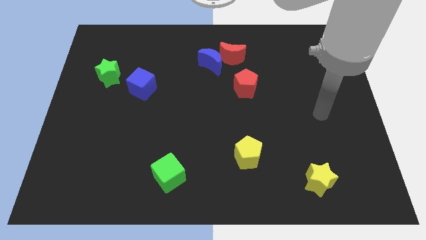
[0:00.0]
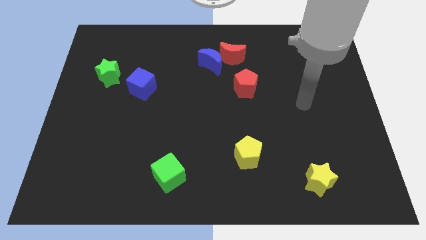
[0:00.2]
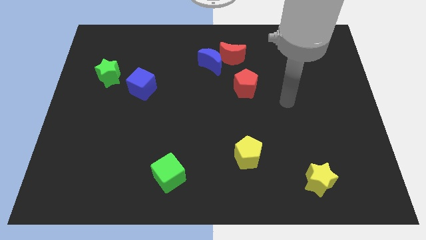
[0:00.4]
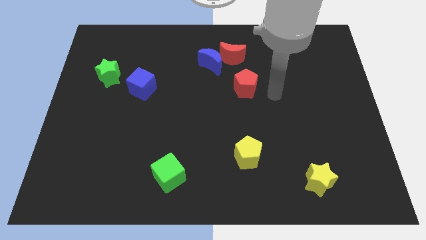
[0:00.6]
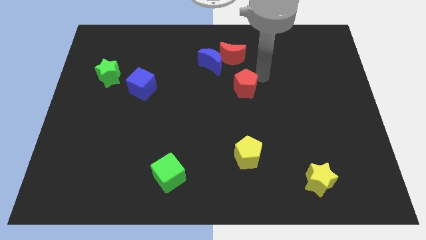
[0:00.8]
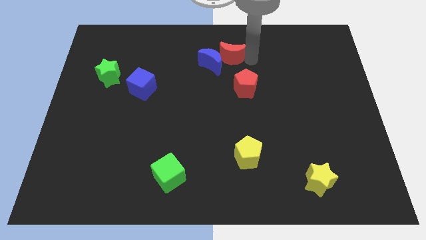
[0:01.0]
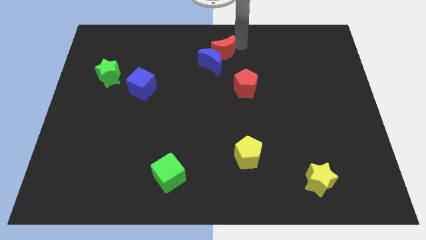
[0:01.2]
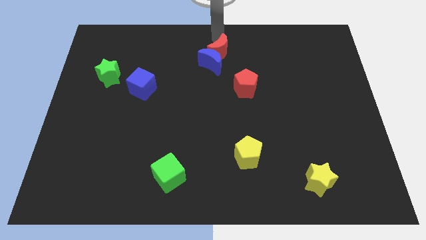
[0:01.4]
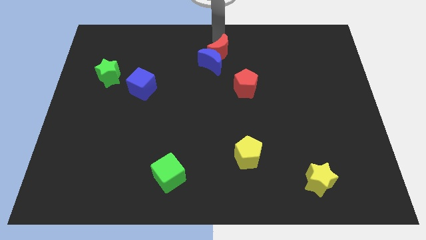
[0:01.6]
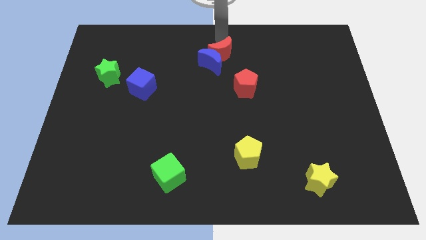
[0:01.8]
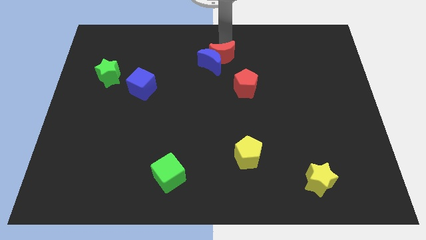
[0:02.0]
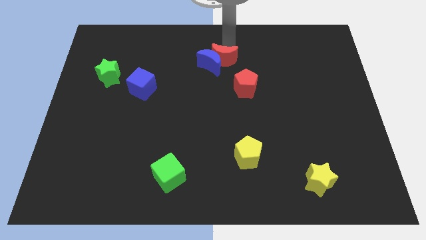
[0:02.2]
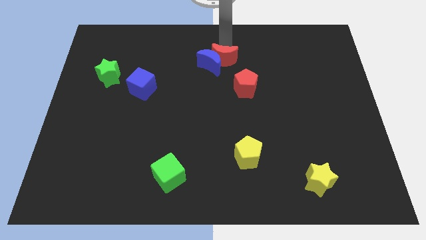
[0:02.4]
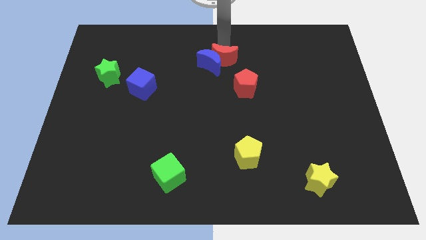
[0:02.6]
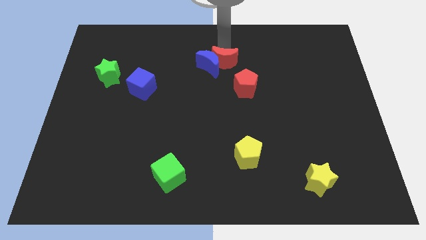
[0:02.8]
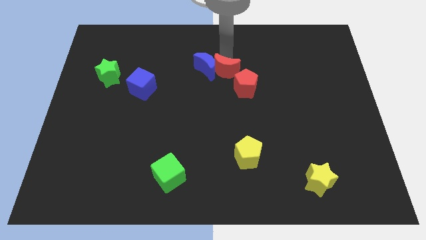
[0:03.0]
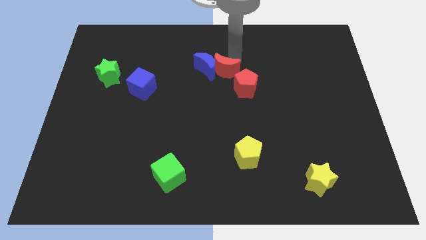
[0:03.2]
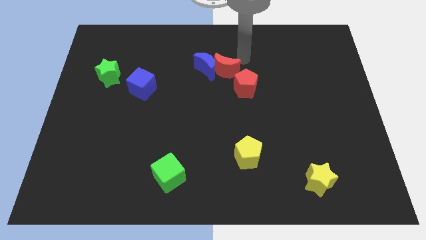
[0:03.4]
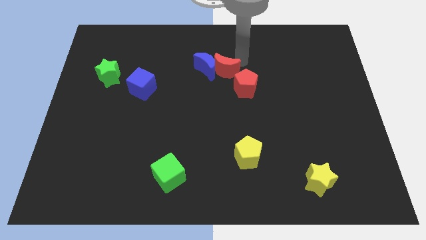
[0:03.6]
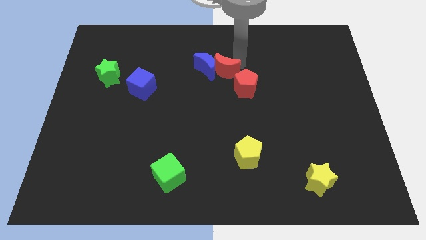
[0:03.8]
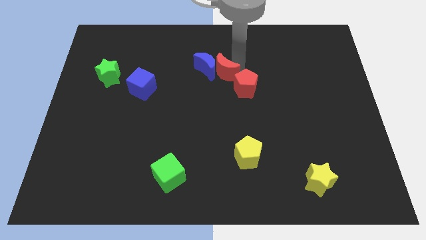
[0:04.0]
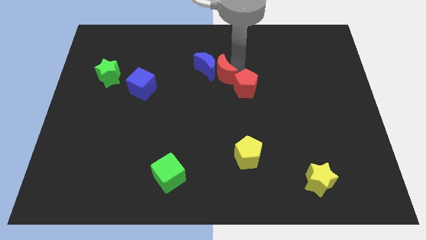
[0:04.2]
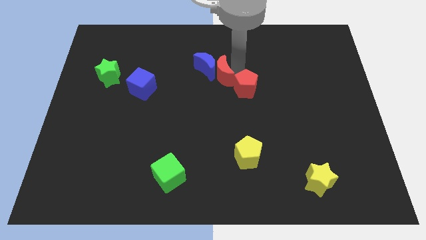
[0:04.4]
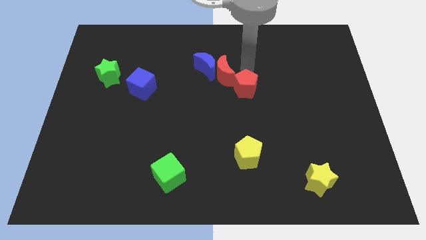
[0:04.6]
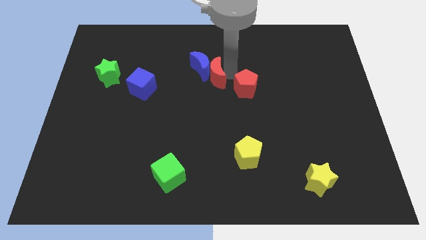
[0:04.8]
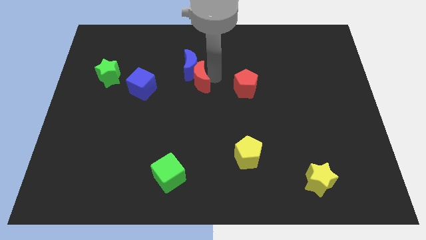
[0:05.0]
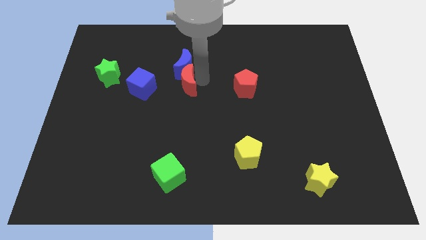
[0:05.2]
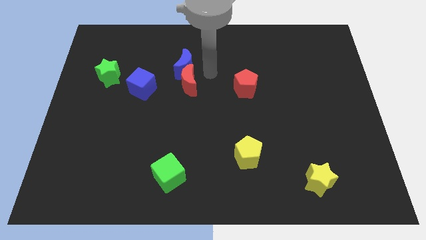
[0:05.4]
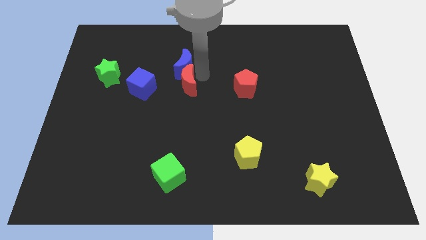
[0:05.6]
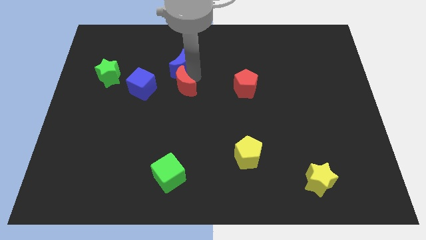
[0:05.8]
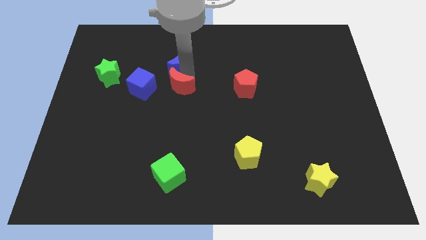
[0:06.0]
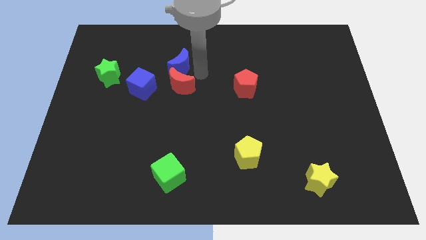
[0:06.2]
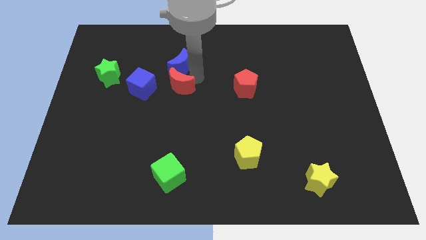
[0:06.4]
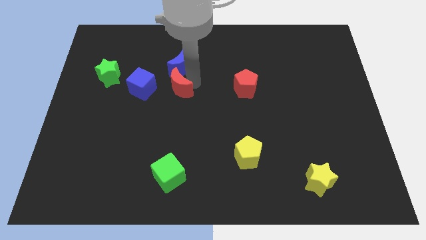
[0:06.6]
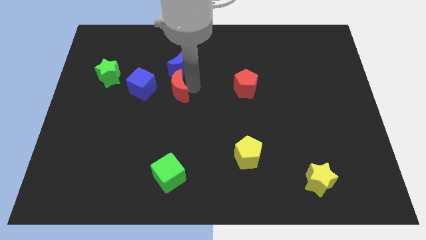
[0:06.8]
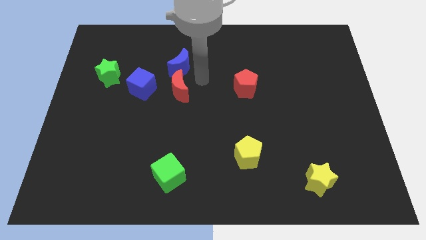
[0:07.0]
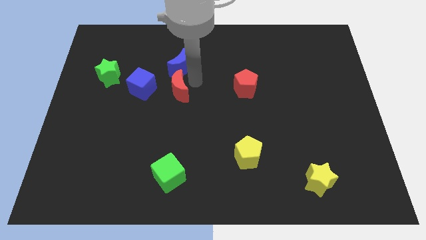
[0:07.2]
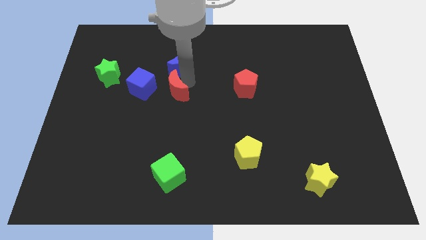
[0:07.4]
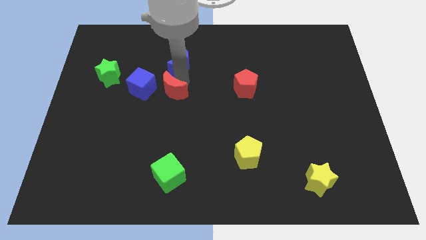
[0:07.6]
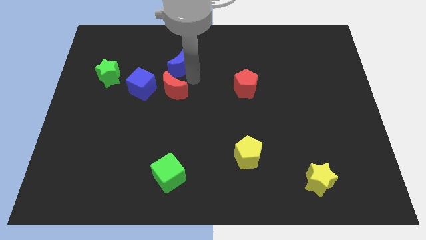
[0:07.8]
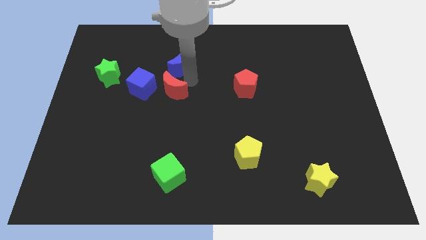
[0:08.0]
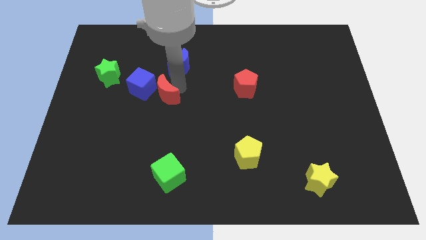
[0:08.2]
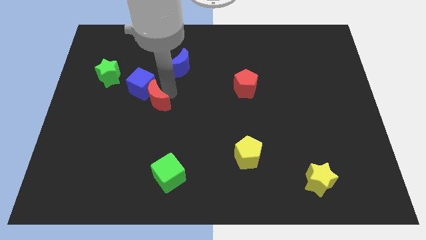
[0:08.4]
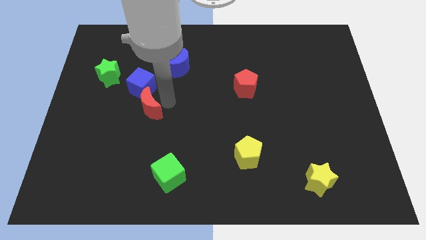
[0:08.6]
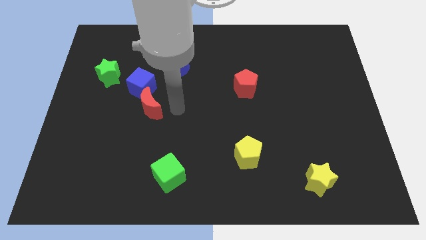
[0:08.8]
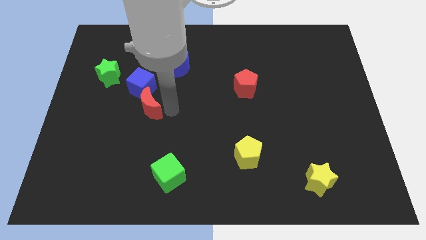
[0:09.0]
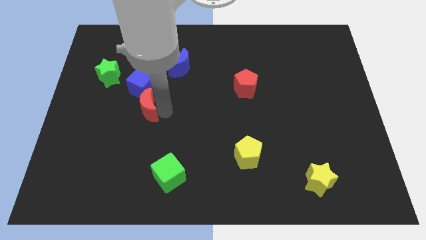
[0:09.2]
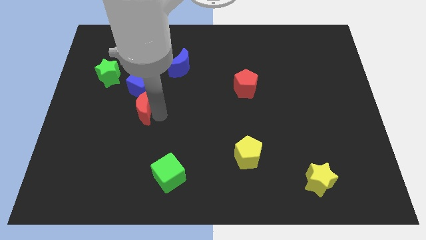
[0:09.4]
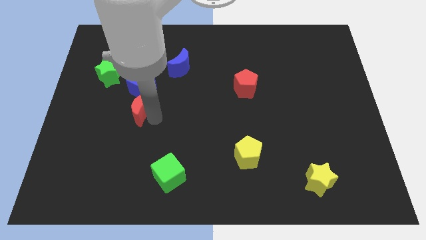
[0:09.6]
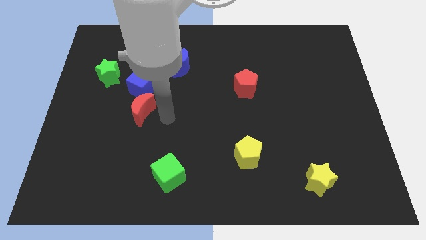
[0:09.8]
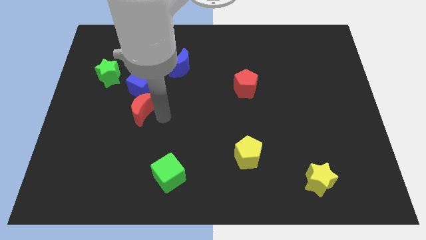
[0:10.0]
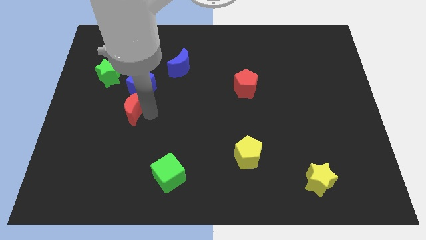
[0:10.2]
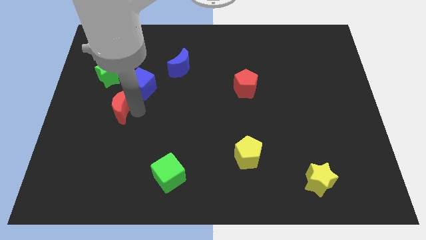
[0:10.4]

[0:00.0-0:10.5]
push the red moon below the green star

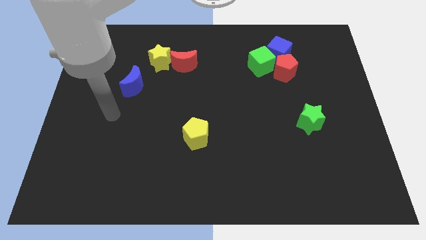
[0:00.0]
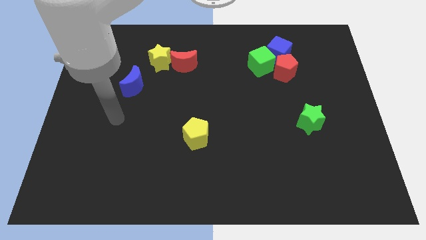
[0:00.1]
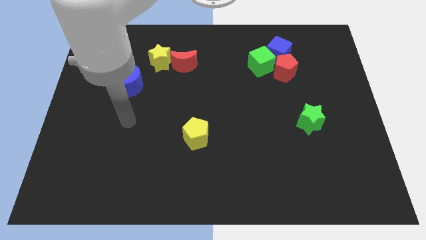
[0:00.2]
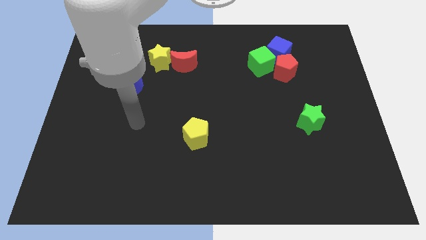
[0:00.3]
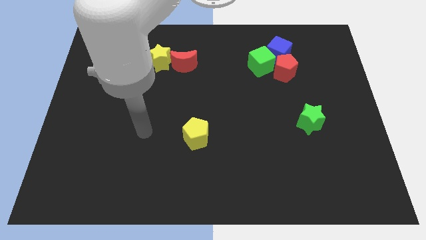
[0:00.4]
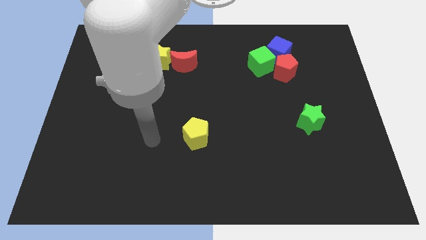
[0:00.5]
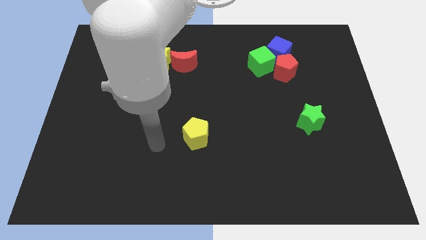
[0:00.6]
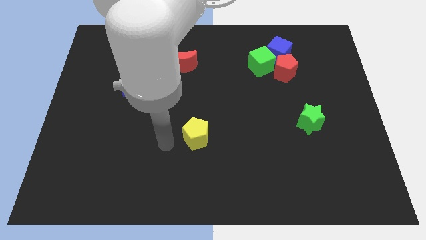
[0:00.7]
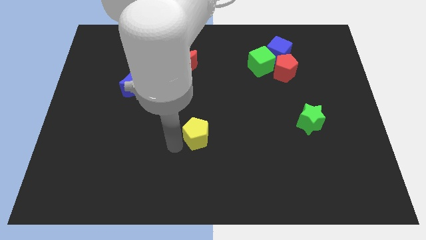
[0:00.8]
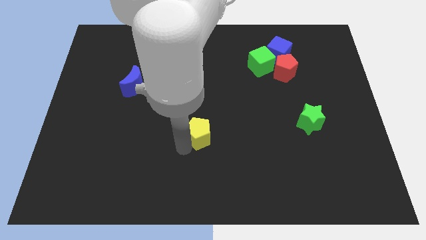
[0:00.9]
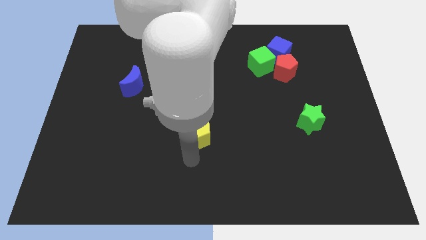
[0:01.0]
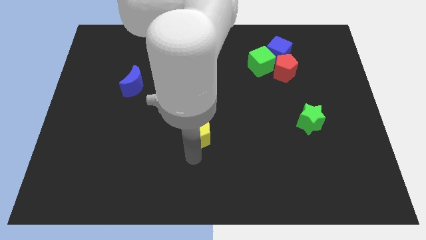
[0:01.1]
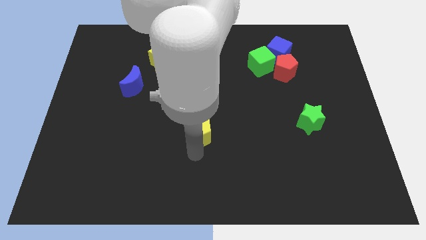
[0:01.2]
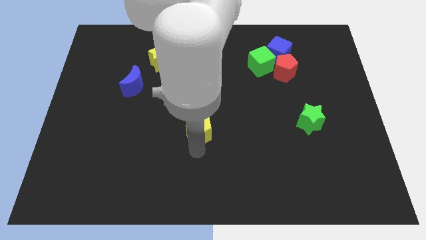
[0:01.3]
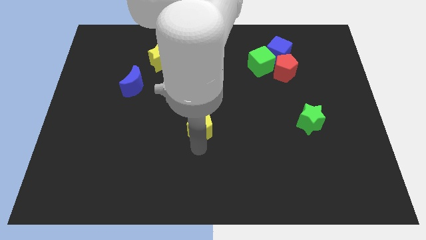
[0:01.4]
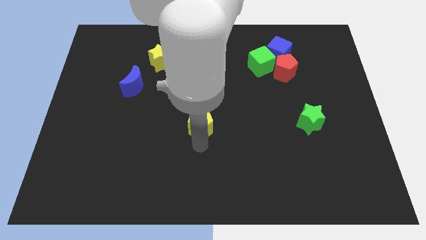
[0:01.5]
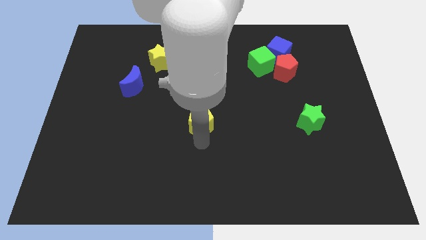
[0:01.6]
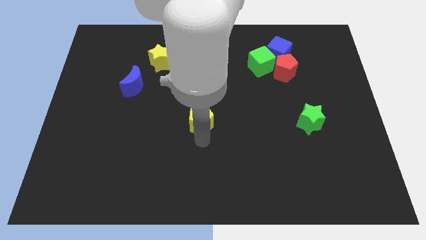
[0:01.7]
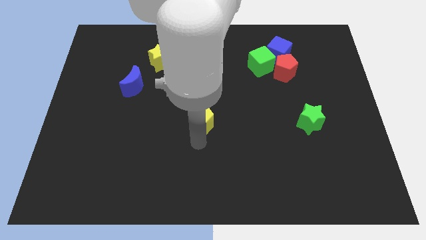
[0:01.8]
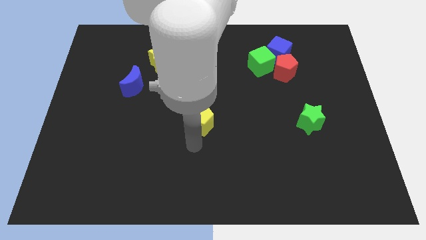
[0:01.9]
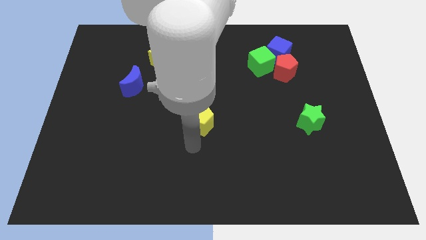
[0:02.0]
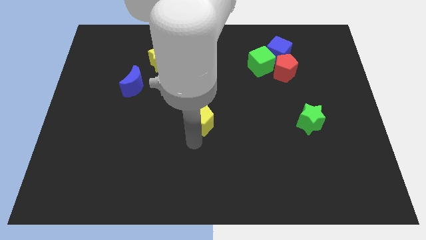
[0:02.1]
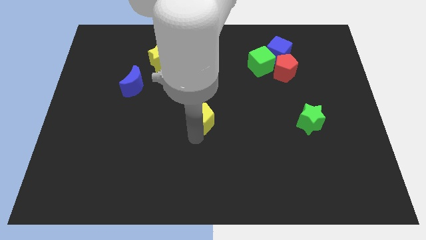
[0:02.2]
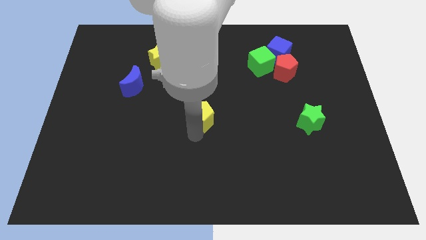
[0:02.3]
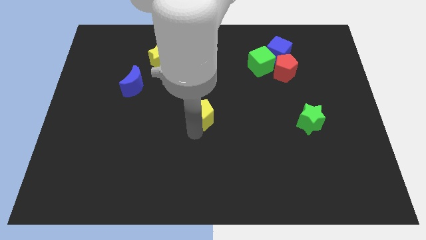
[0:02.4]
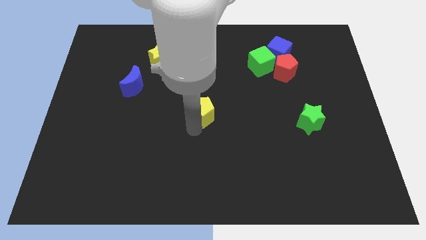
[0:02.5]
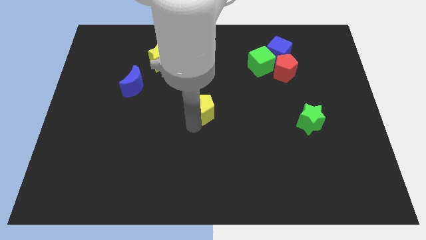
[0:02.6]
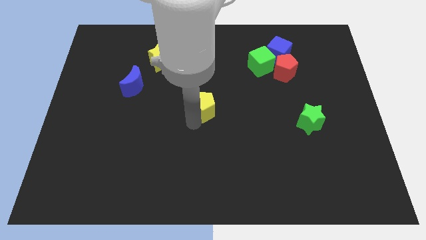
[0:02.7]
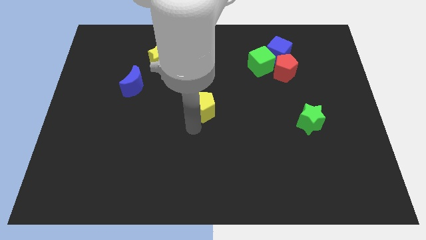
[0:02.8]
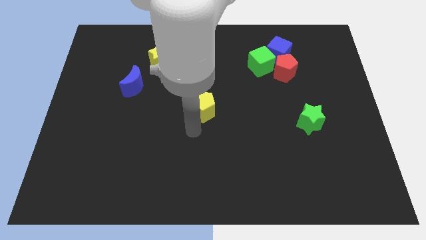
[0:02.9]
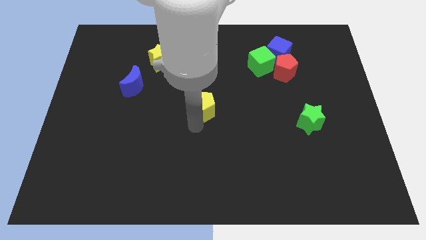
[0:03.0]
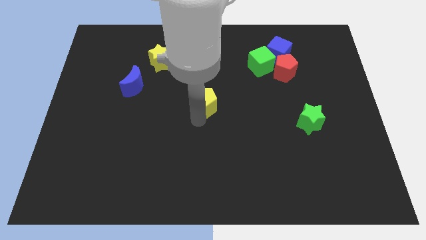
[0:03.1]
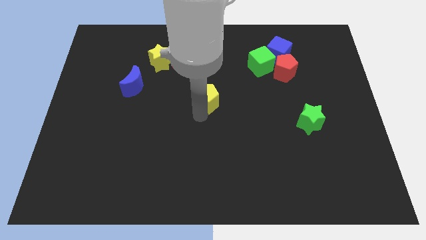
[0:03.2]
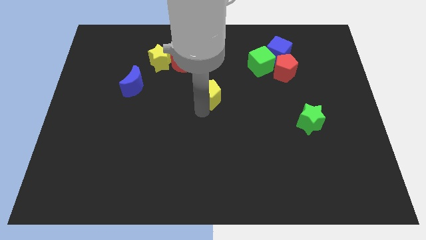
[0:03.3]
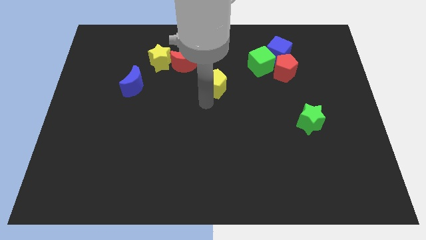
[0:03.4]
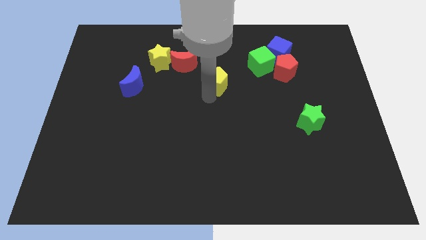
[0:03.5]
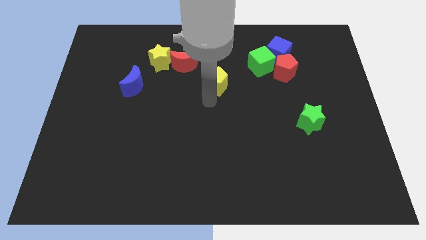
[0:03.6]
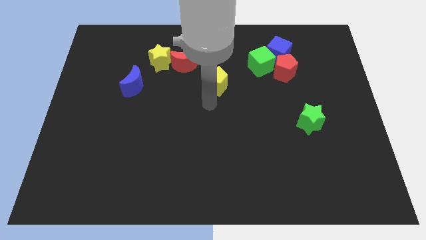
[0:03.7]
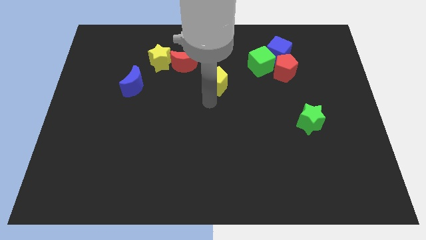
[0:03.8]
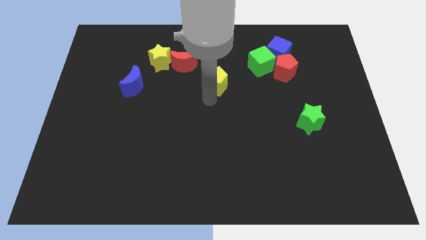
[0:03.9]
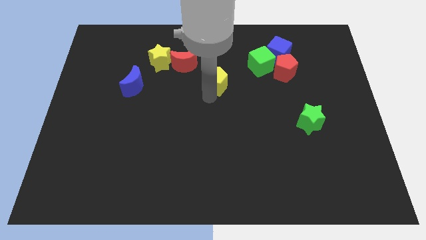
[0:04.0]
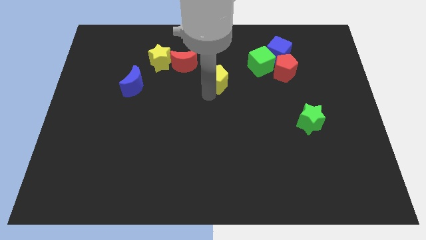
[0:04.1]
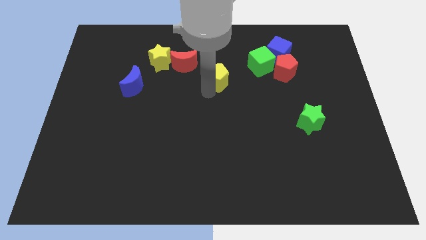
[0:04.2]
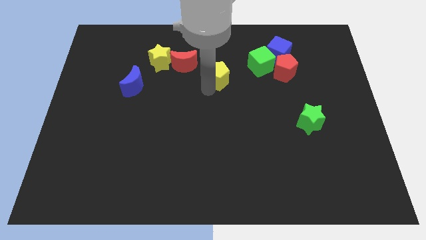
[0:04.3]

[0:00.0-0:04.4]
move the yellow pentagon just left of the green cube
